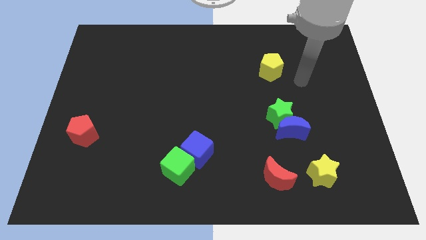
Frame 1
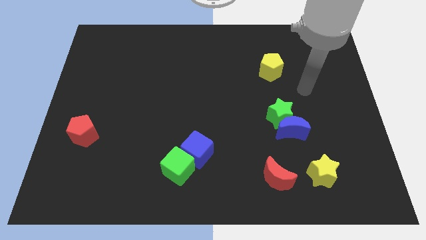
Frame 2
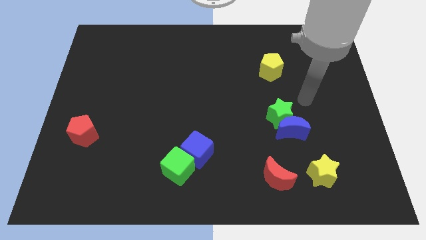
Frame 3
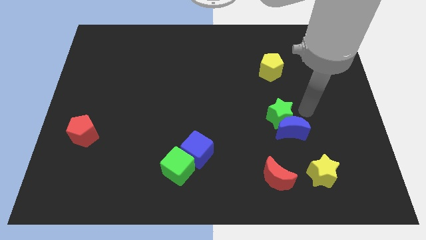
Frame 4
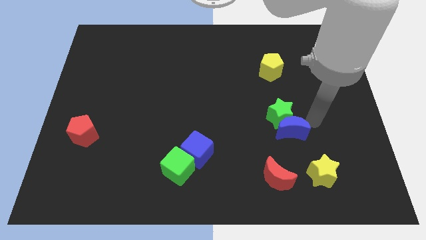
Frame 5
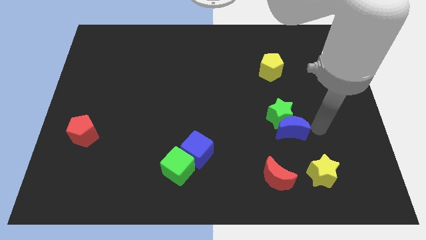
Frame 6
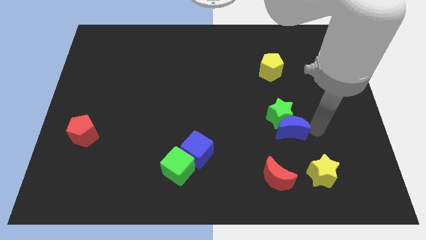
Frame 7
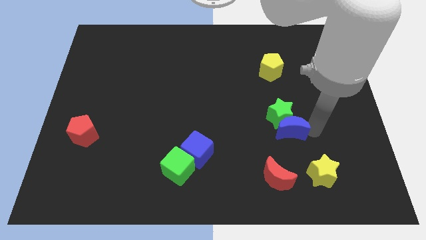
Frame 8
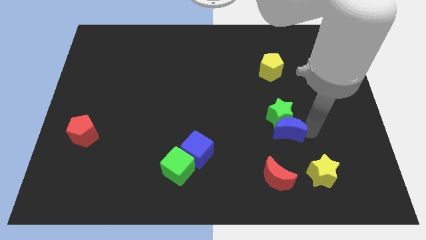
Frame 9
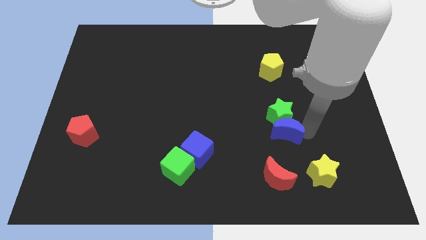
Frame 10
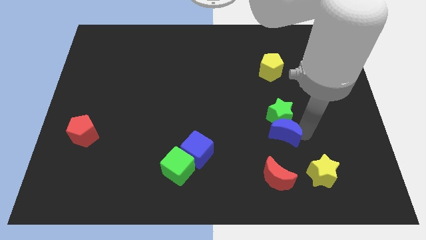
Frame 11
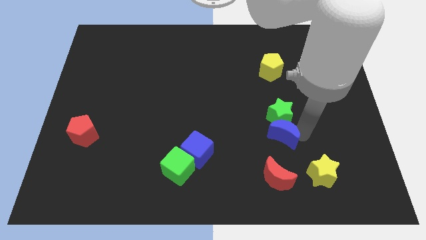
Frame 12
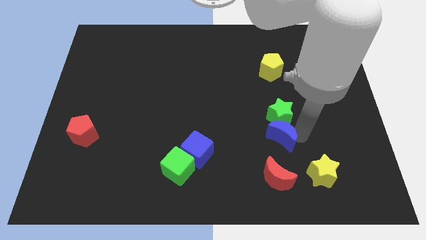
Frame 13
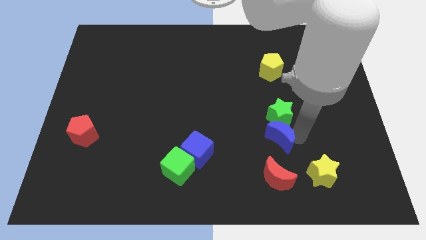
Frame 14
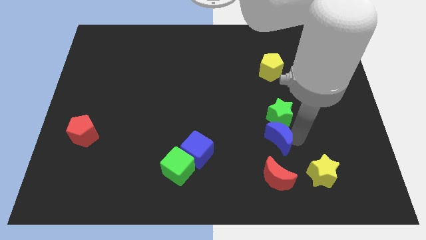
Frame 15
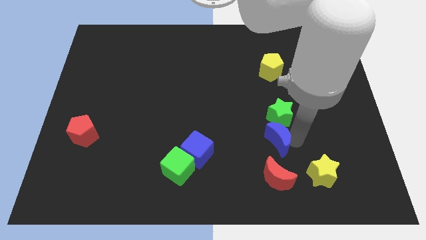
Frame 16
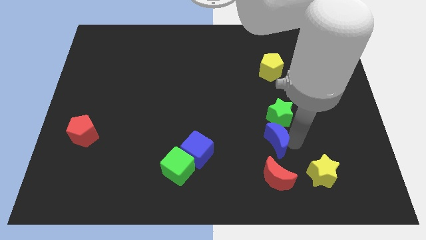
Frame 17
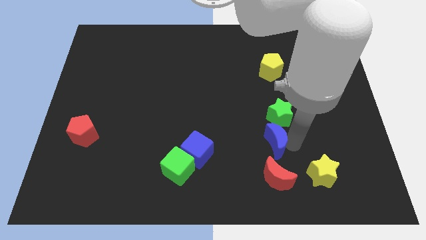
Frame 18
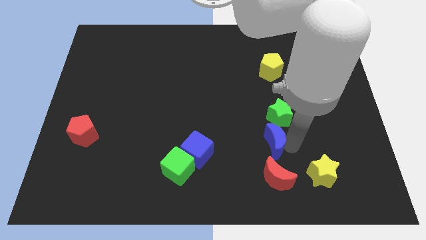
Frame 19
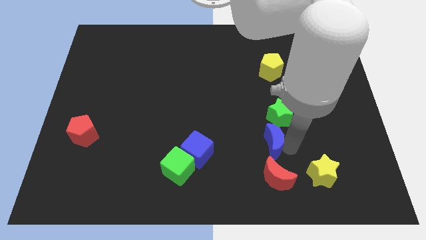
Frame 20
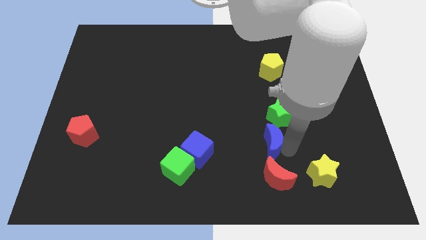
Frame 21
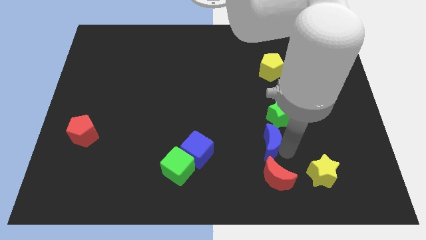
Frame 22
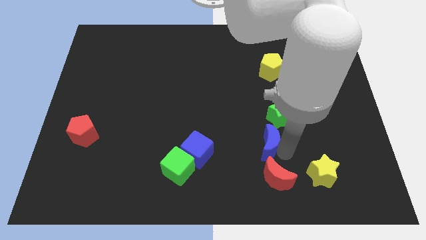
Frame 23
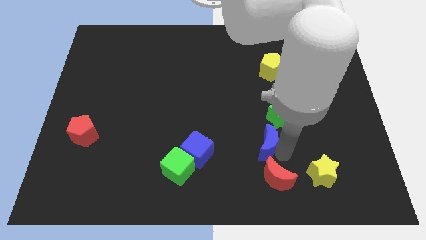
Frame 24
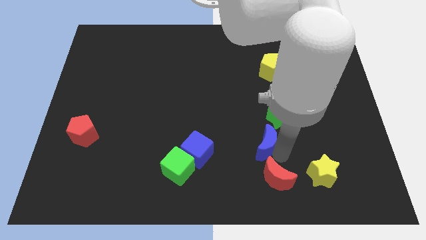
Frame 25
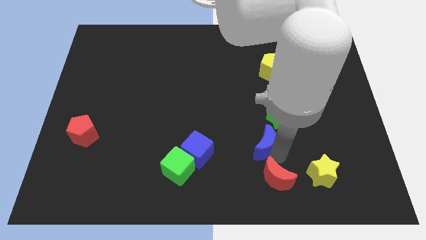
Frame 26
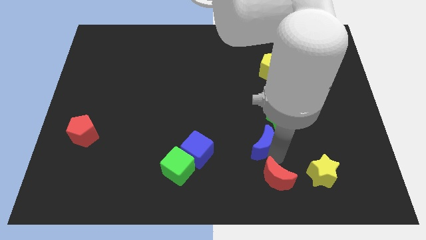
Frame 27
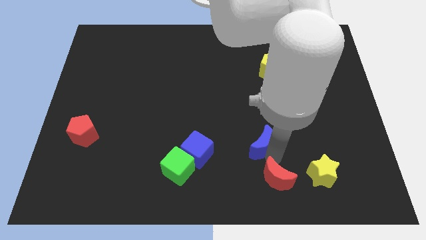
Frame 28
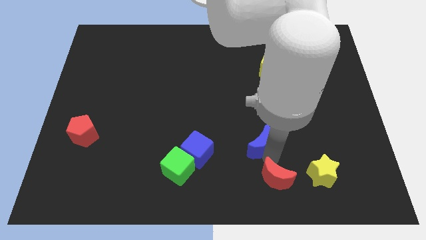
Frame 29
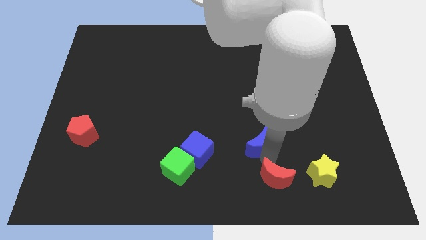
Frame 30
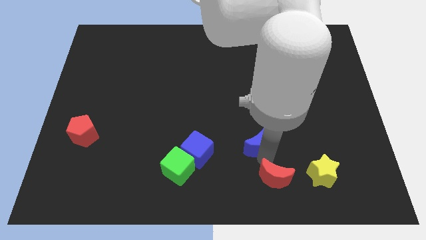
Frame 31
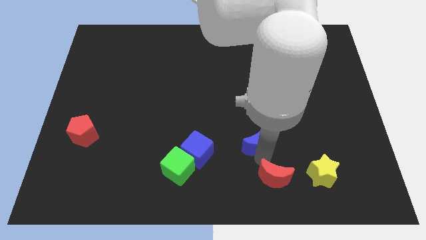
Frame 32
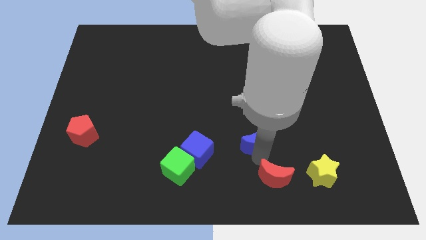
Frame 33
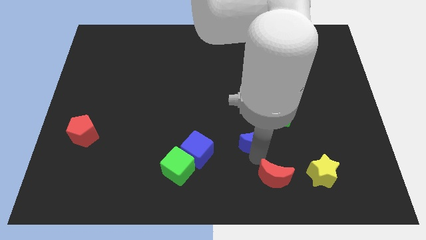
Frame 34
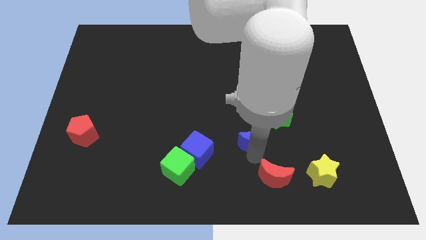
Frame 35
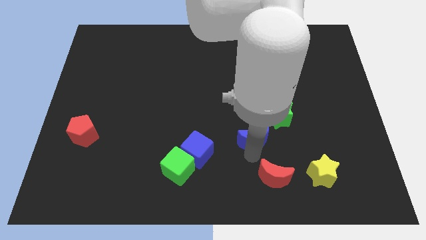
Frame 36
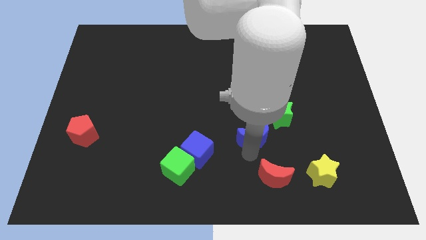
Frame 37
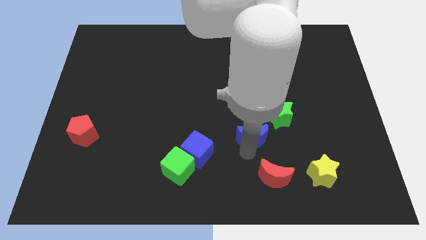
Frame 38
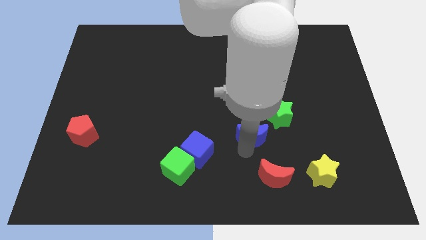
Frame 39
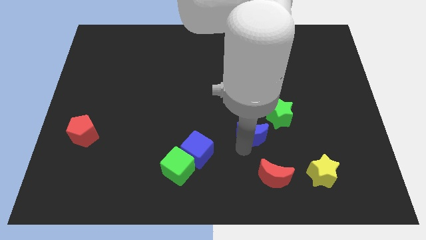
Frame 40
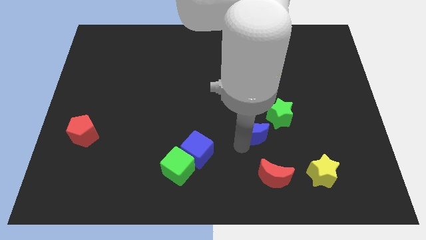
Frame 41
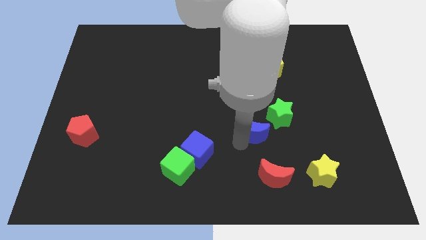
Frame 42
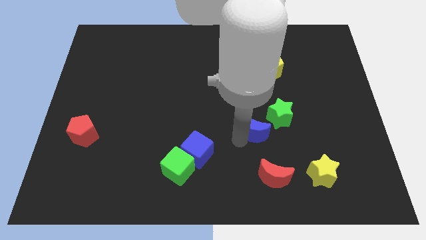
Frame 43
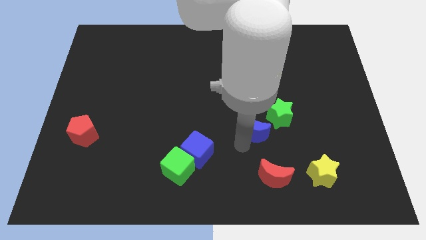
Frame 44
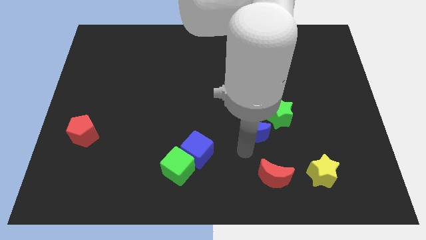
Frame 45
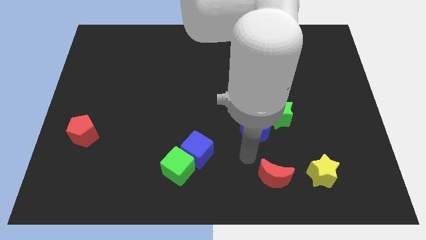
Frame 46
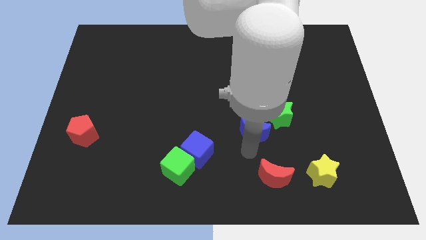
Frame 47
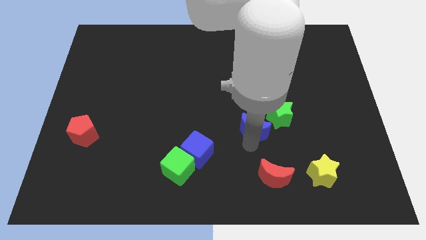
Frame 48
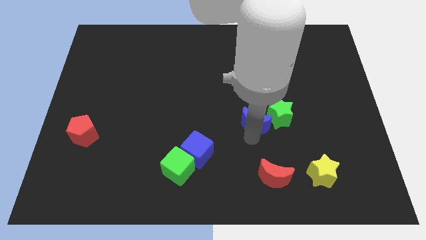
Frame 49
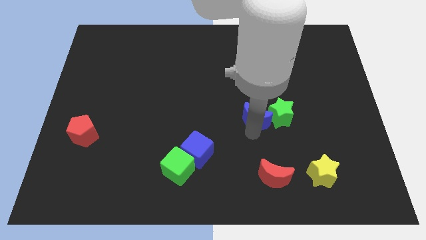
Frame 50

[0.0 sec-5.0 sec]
slide the blue moon up and left slightly

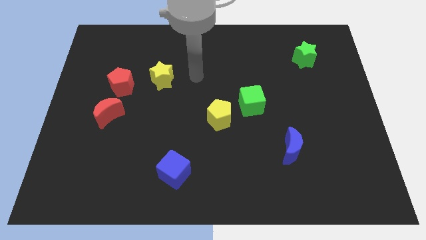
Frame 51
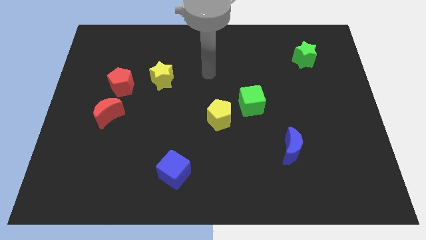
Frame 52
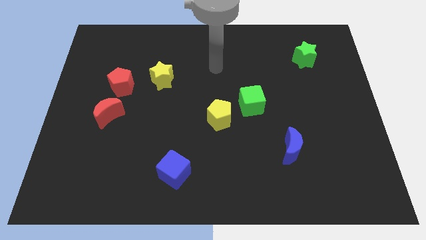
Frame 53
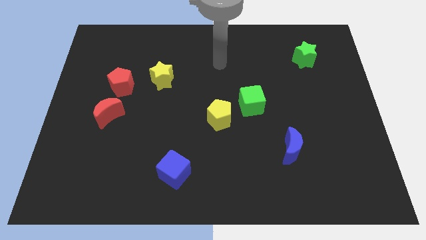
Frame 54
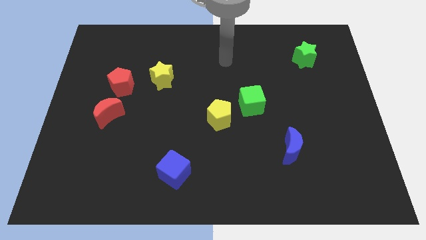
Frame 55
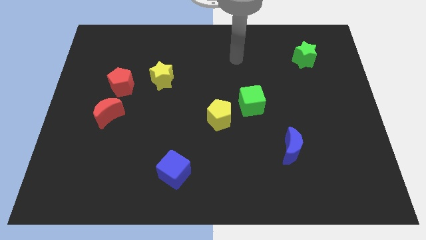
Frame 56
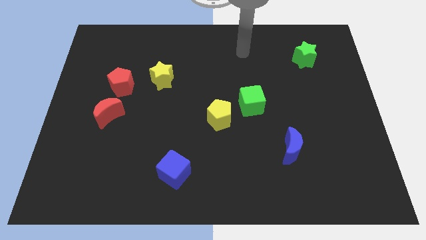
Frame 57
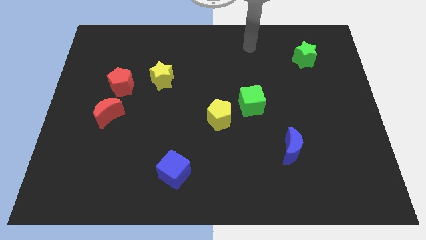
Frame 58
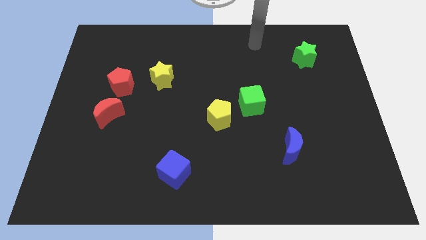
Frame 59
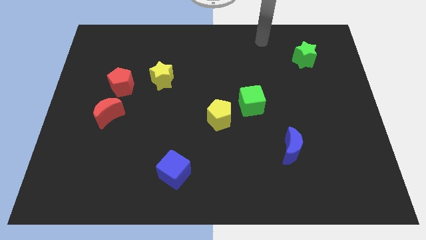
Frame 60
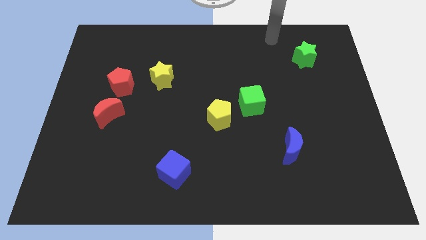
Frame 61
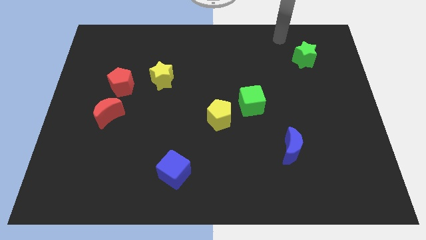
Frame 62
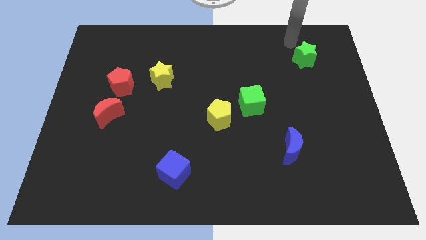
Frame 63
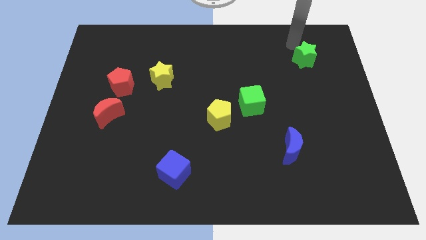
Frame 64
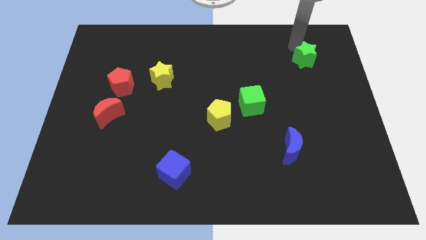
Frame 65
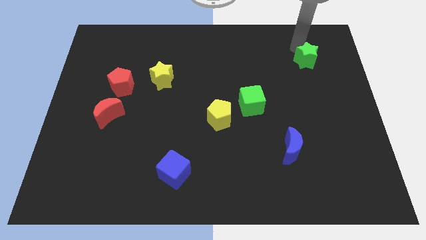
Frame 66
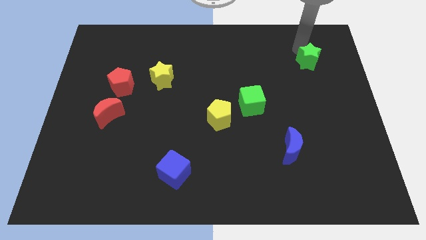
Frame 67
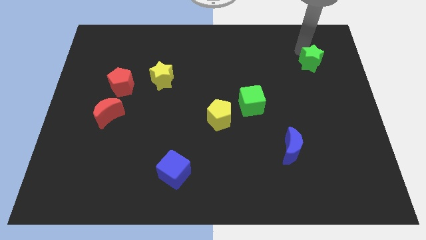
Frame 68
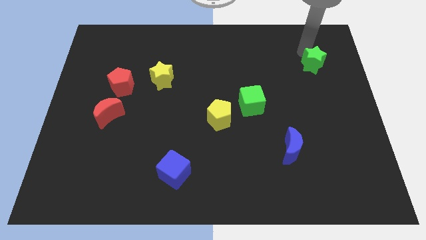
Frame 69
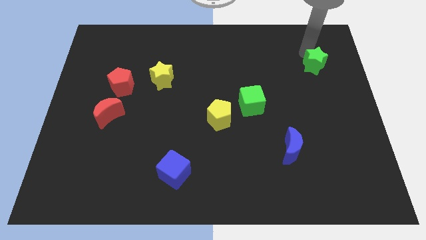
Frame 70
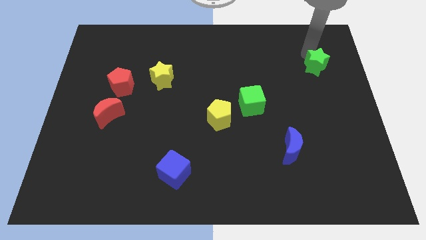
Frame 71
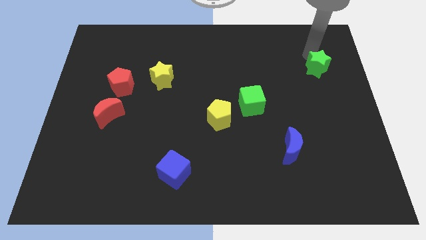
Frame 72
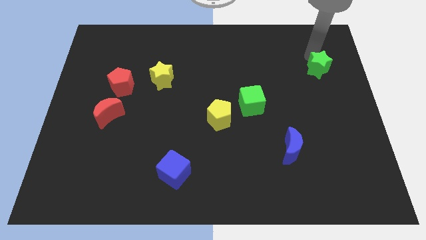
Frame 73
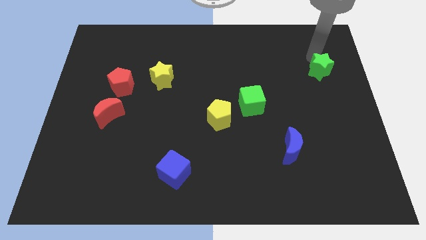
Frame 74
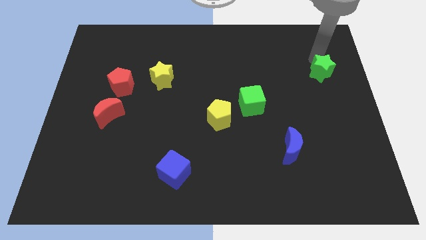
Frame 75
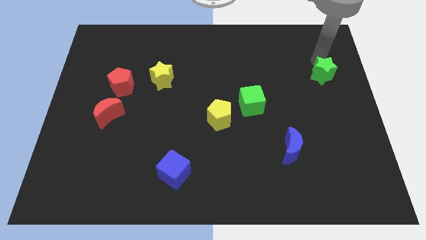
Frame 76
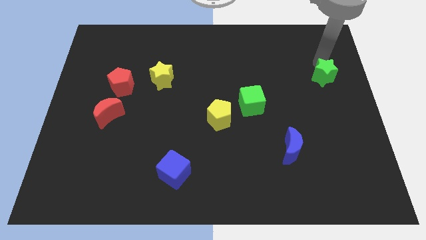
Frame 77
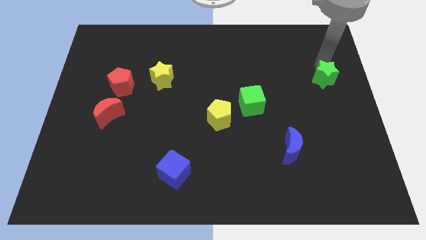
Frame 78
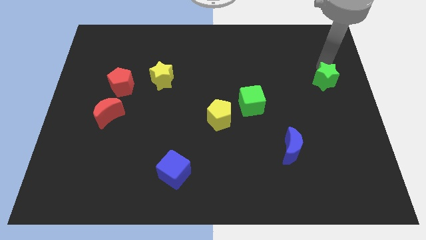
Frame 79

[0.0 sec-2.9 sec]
move the green star down somewhat
